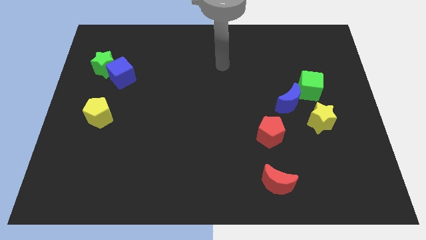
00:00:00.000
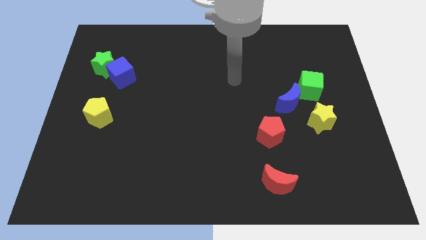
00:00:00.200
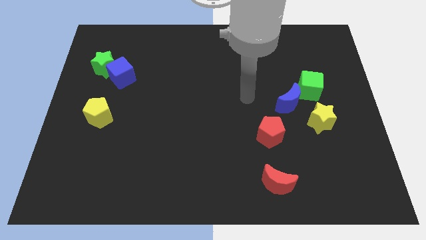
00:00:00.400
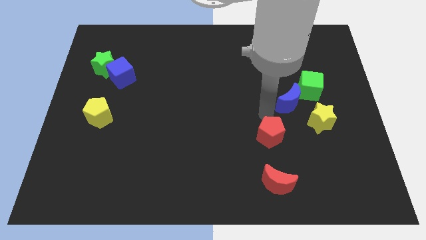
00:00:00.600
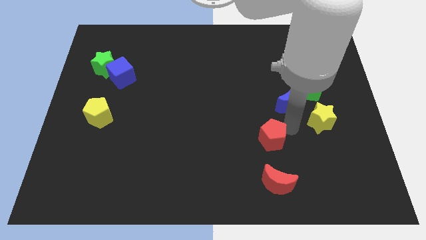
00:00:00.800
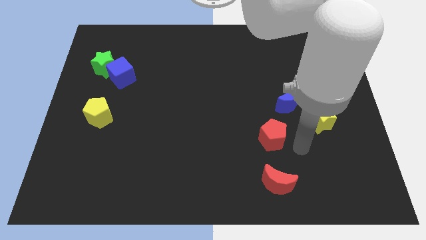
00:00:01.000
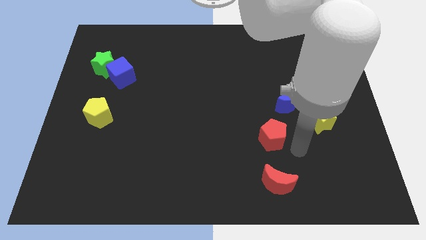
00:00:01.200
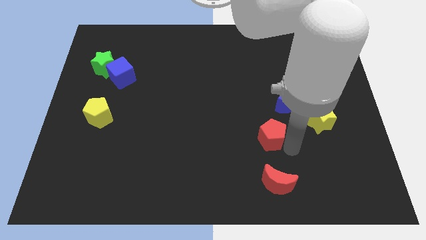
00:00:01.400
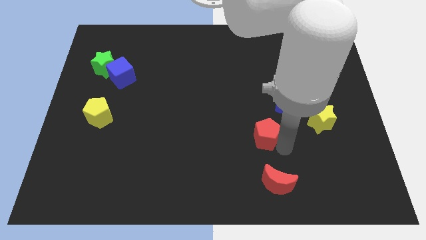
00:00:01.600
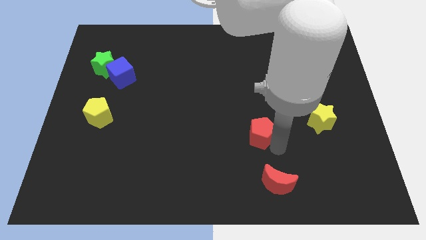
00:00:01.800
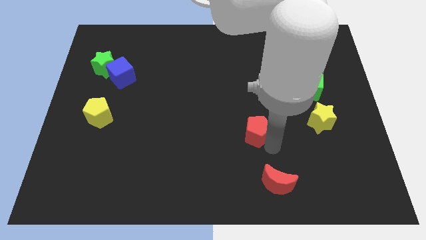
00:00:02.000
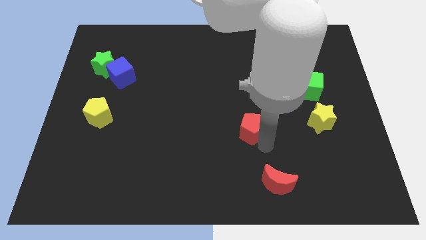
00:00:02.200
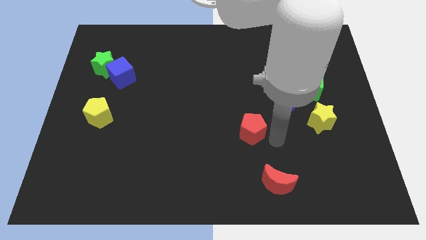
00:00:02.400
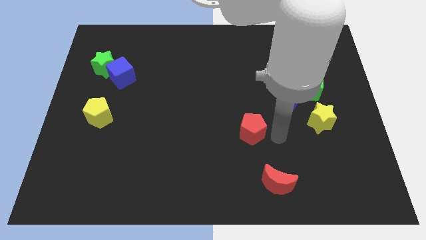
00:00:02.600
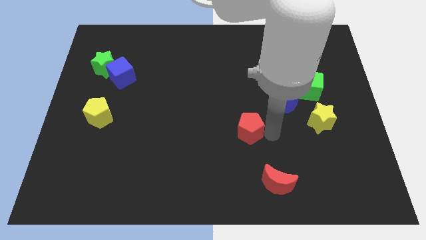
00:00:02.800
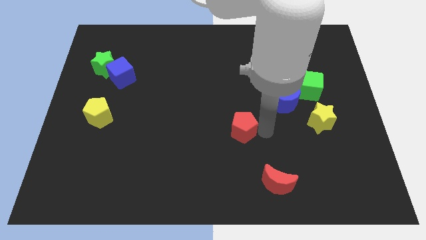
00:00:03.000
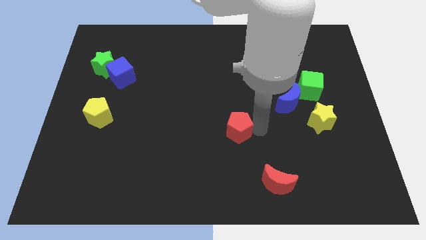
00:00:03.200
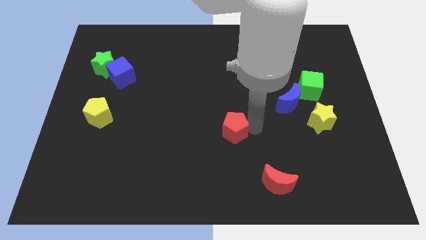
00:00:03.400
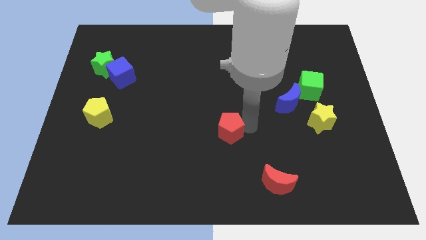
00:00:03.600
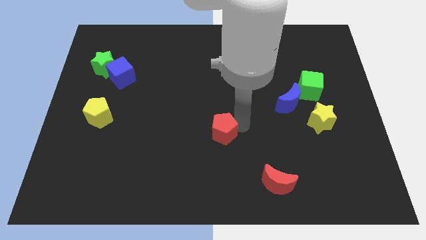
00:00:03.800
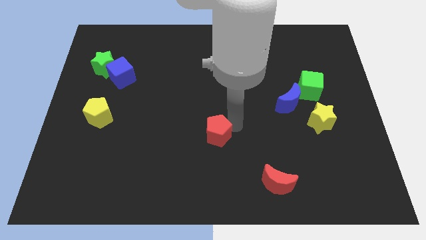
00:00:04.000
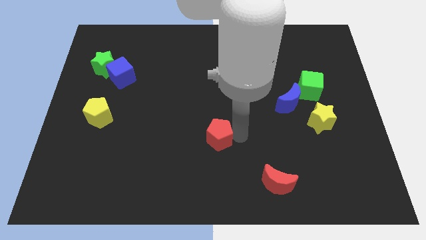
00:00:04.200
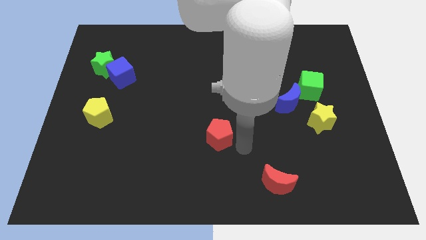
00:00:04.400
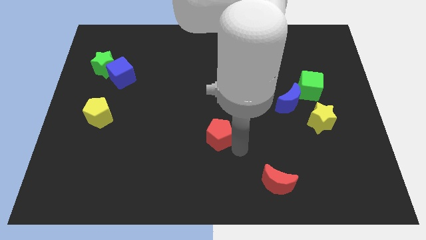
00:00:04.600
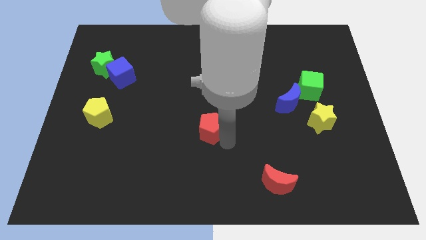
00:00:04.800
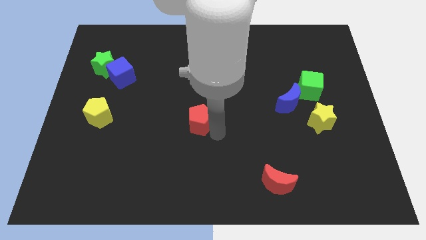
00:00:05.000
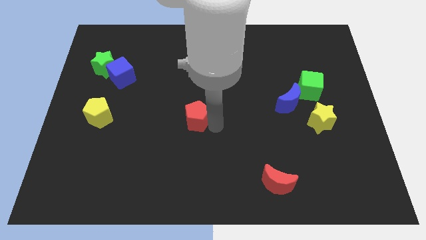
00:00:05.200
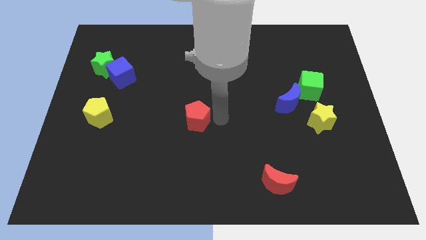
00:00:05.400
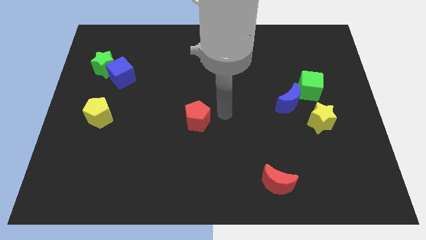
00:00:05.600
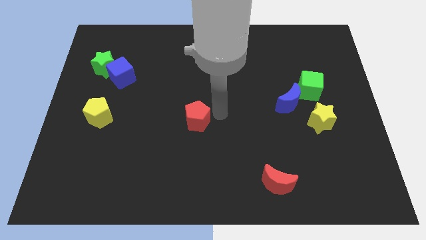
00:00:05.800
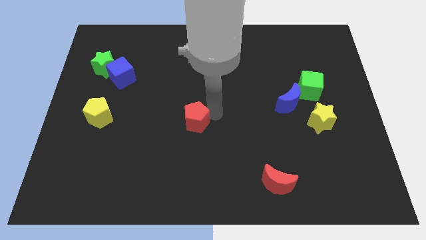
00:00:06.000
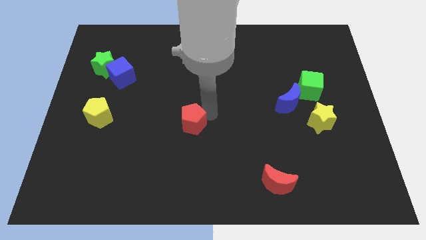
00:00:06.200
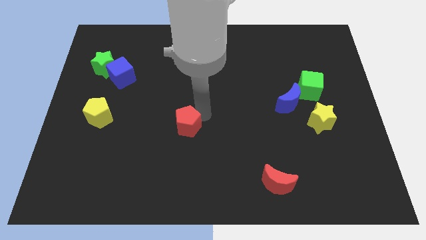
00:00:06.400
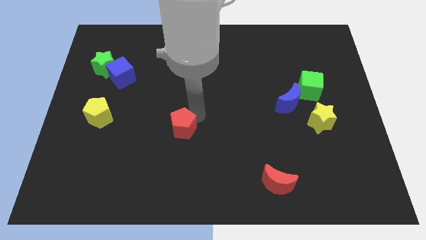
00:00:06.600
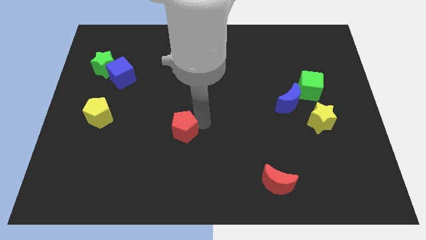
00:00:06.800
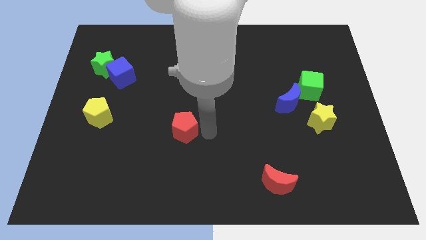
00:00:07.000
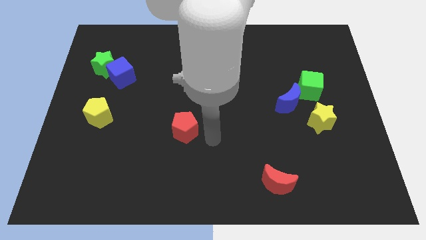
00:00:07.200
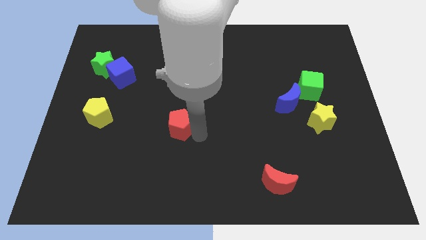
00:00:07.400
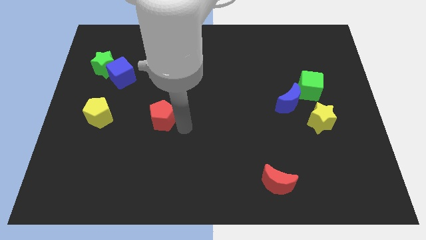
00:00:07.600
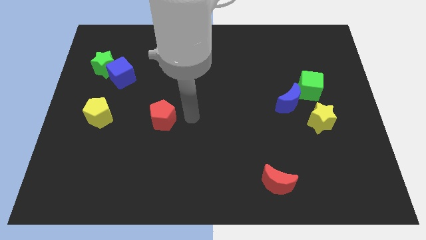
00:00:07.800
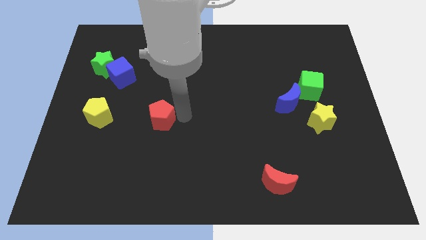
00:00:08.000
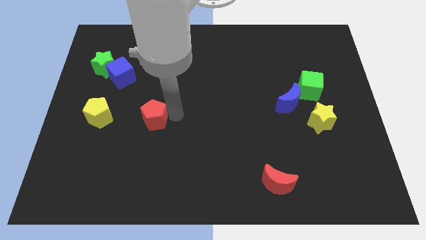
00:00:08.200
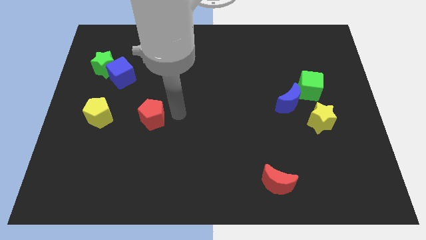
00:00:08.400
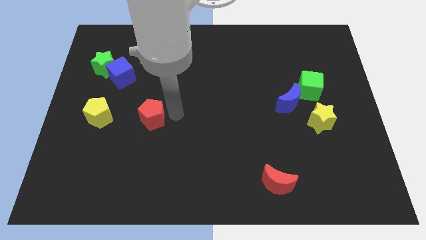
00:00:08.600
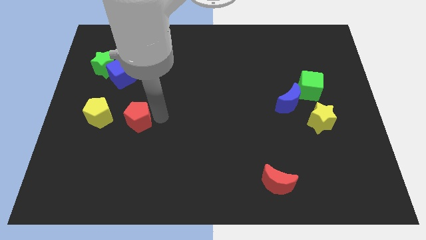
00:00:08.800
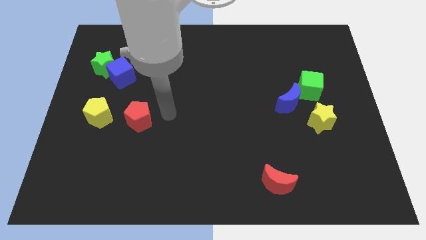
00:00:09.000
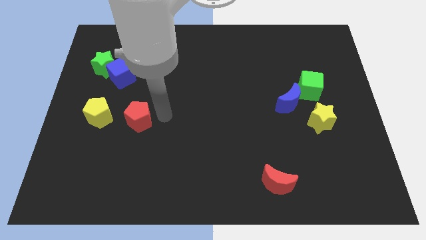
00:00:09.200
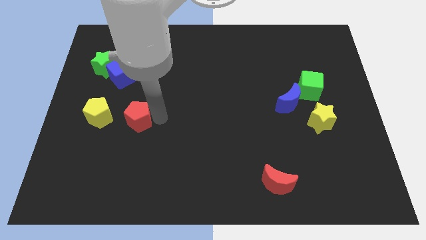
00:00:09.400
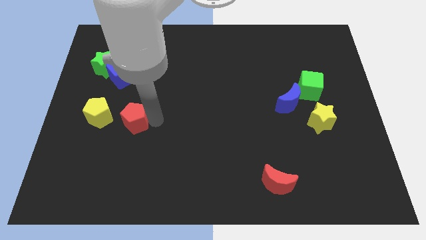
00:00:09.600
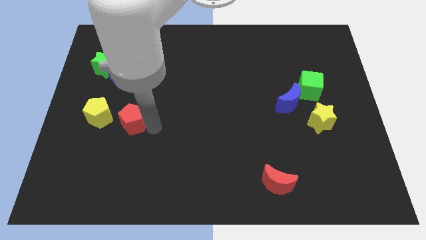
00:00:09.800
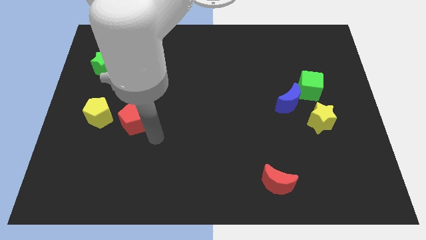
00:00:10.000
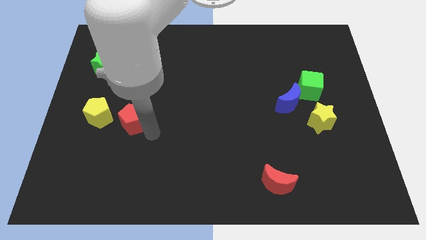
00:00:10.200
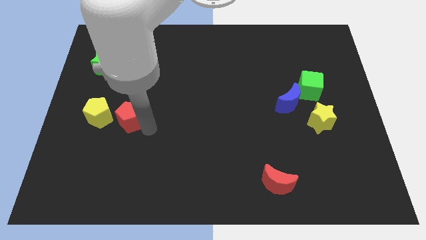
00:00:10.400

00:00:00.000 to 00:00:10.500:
put the red pentagon below the blue cube

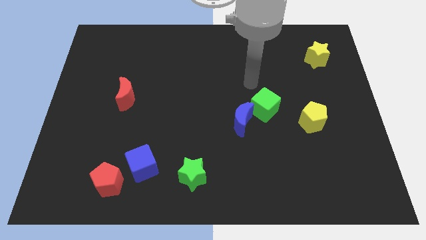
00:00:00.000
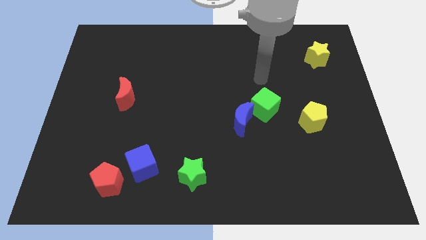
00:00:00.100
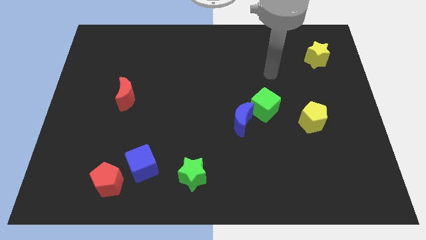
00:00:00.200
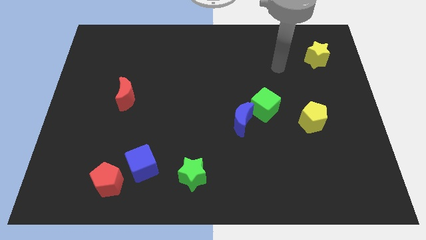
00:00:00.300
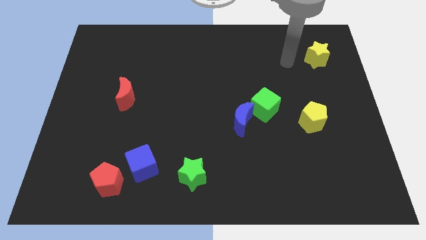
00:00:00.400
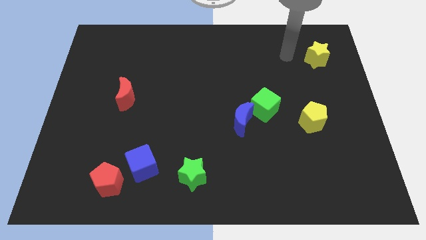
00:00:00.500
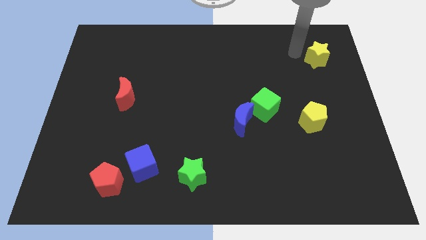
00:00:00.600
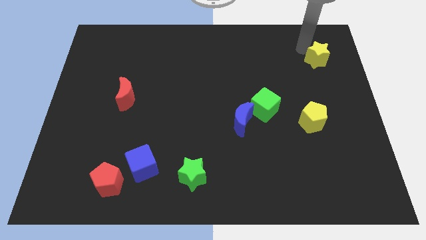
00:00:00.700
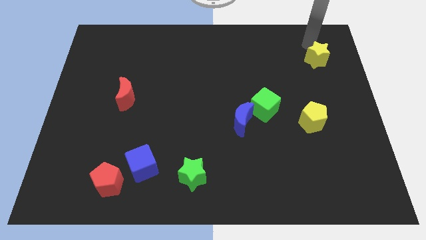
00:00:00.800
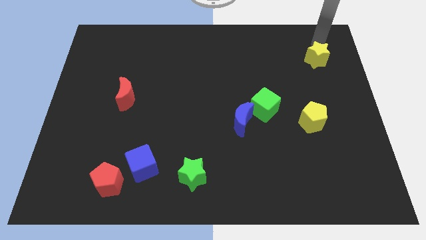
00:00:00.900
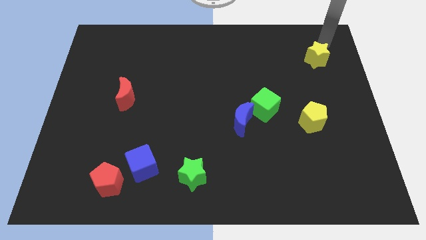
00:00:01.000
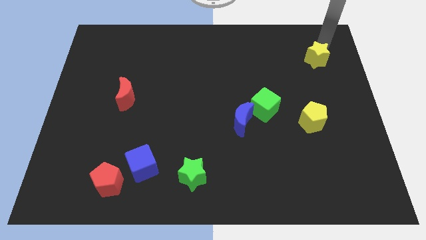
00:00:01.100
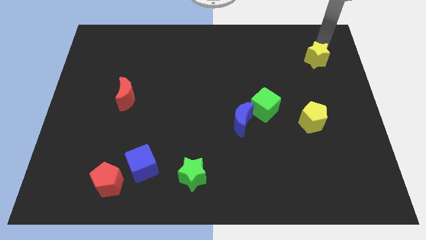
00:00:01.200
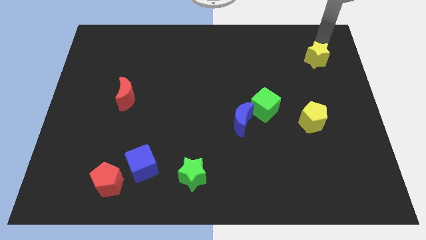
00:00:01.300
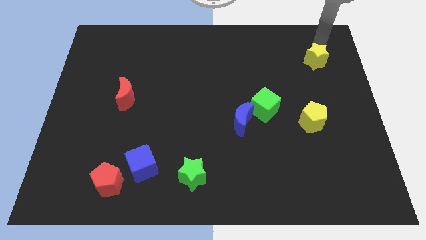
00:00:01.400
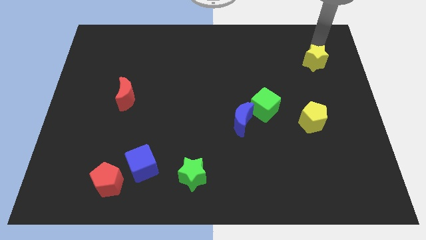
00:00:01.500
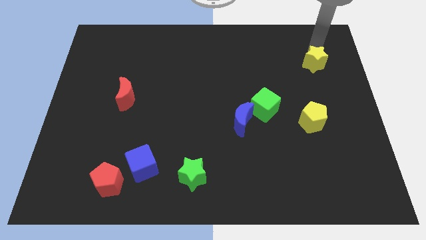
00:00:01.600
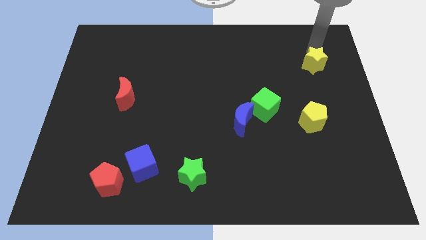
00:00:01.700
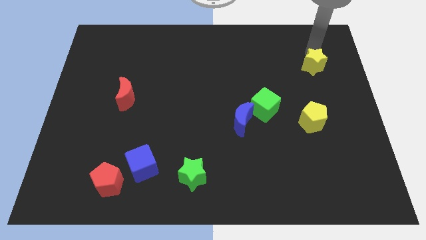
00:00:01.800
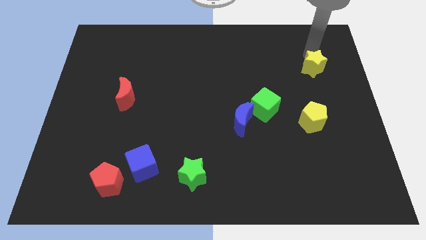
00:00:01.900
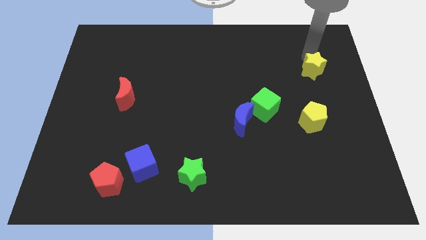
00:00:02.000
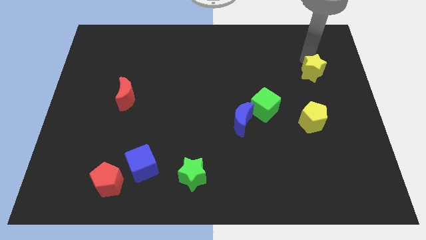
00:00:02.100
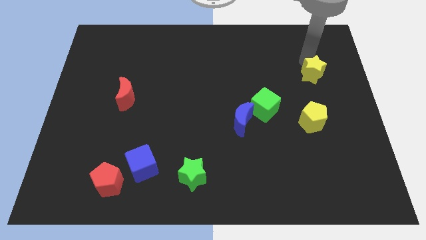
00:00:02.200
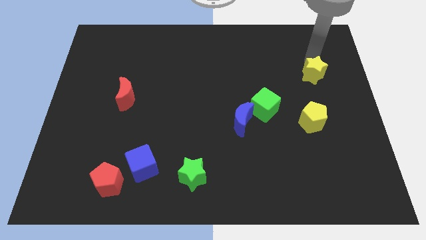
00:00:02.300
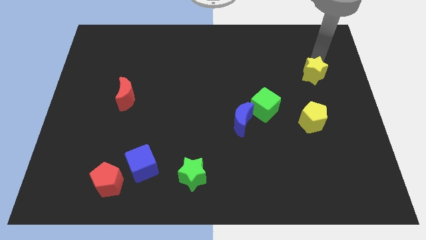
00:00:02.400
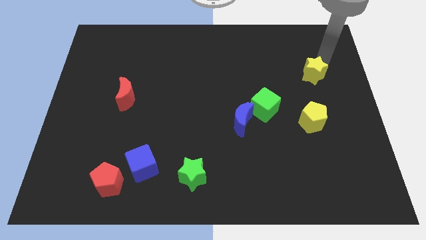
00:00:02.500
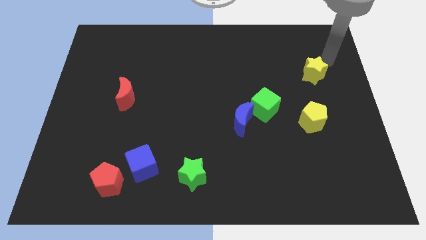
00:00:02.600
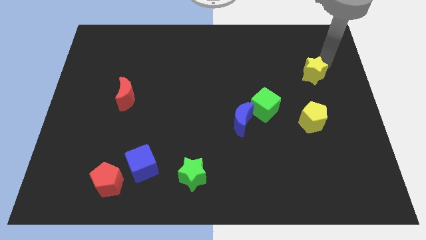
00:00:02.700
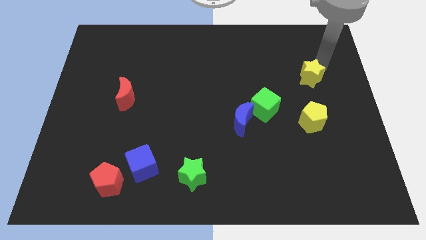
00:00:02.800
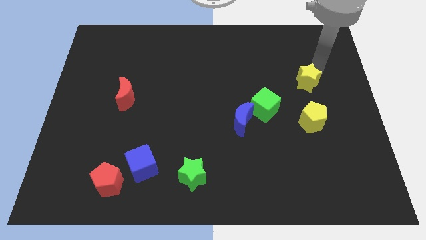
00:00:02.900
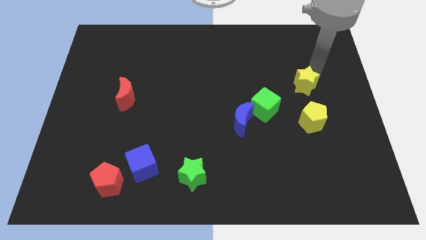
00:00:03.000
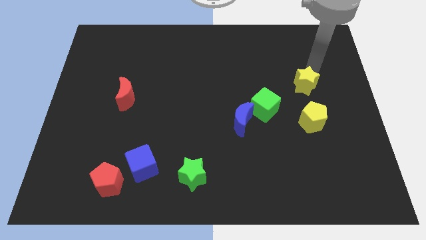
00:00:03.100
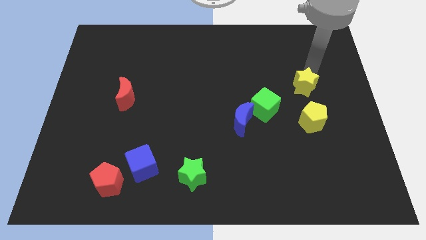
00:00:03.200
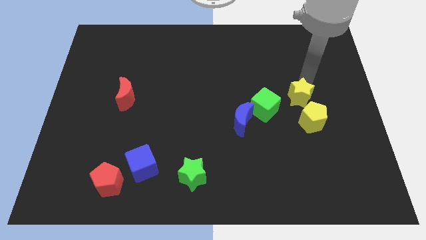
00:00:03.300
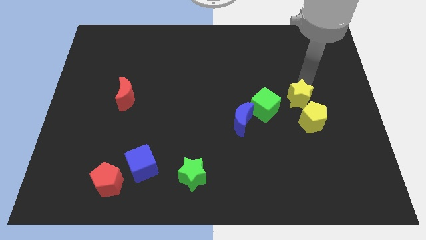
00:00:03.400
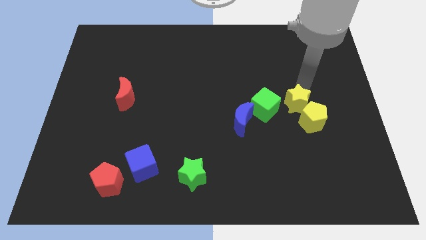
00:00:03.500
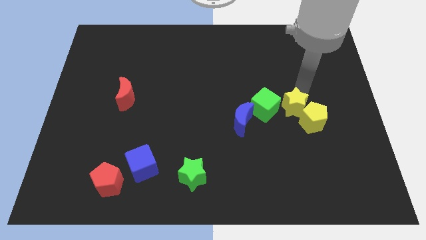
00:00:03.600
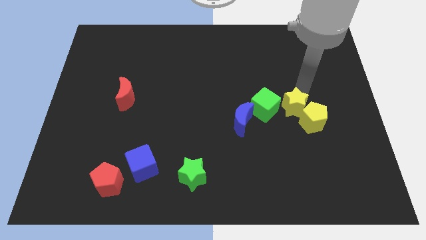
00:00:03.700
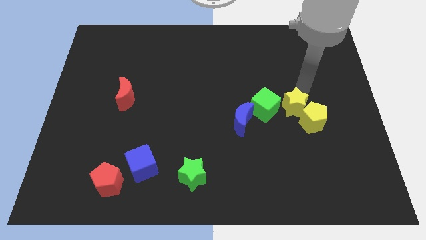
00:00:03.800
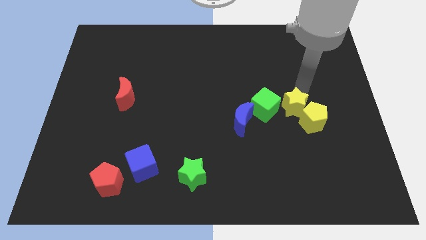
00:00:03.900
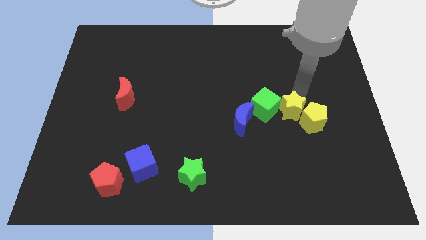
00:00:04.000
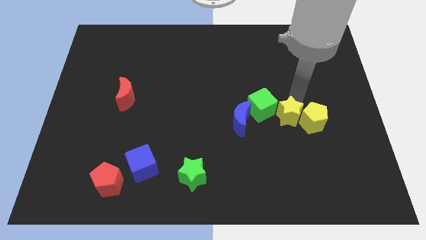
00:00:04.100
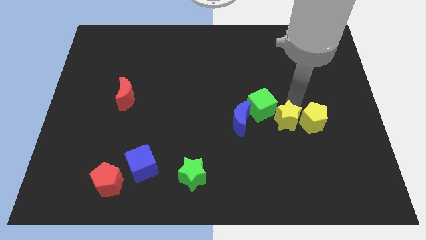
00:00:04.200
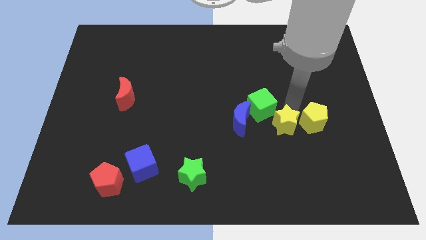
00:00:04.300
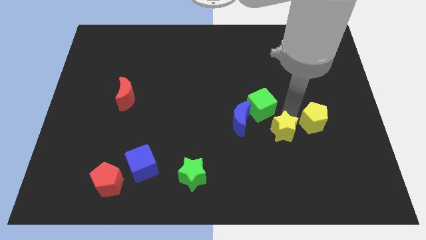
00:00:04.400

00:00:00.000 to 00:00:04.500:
push the yellow star diagonally down and to the right of the blue moon
